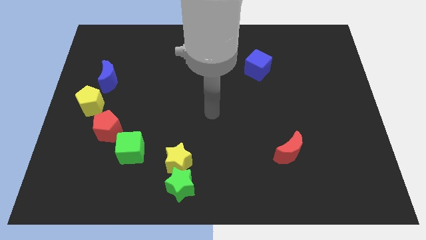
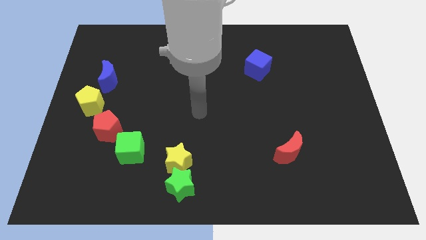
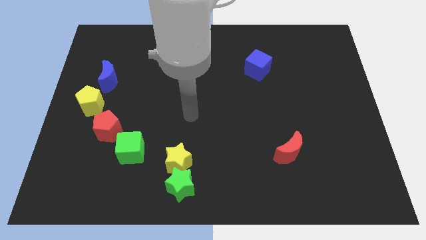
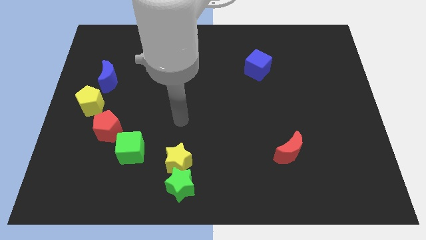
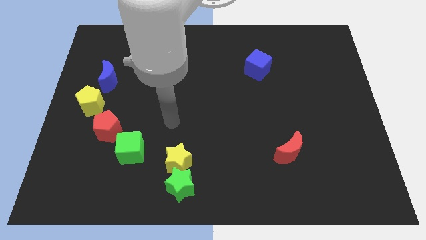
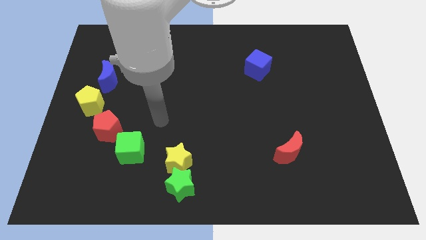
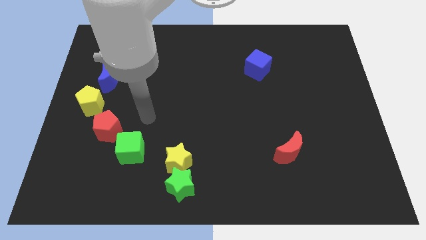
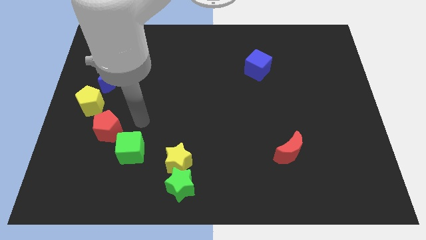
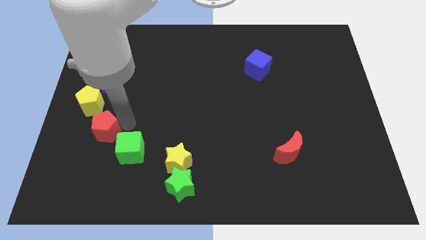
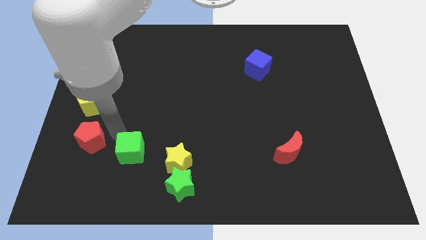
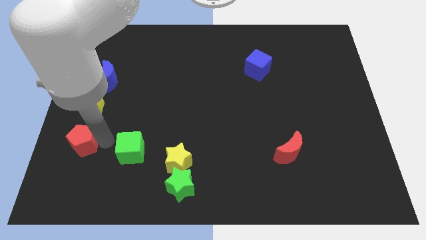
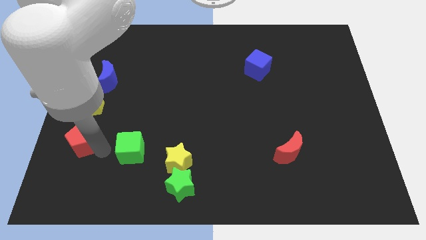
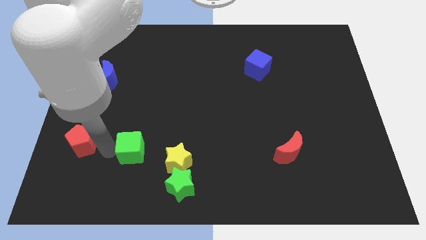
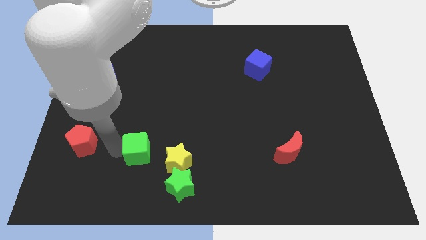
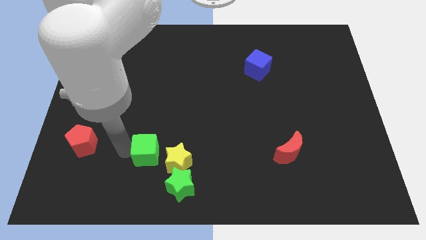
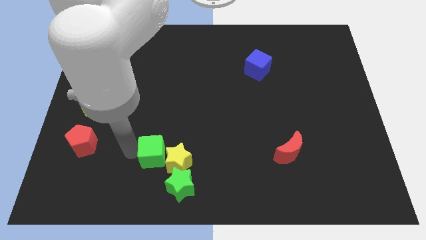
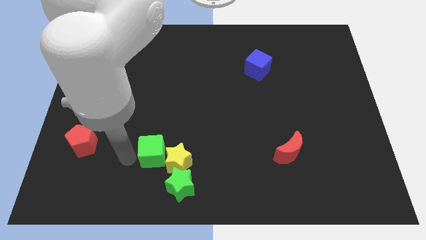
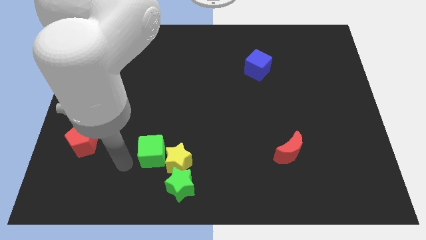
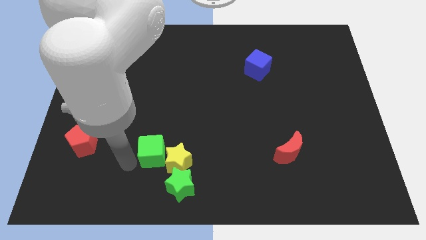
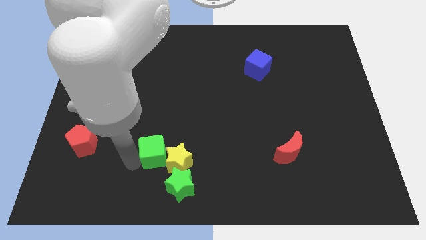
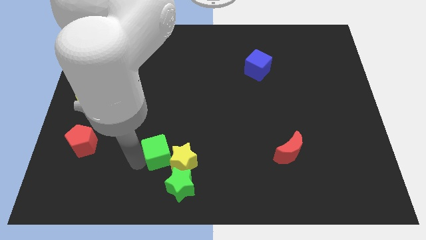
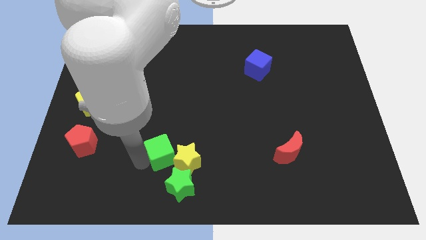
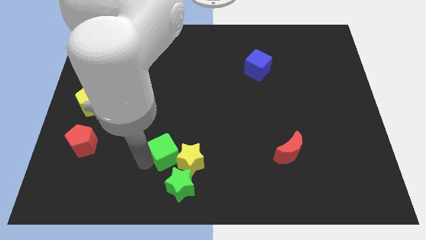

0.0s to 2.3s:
slide the green cube right a little bit

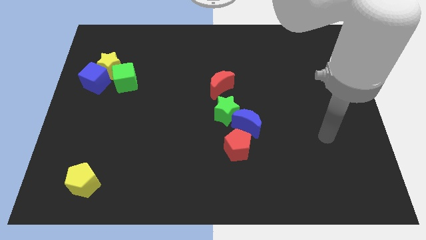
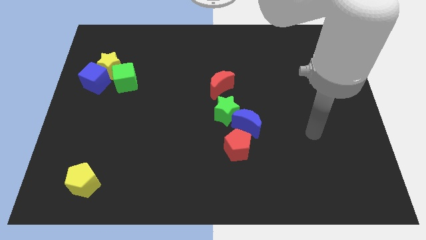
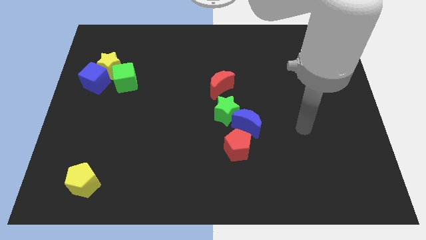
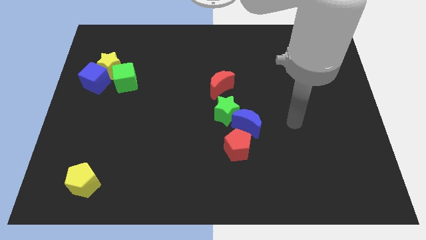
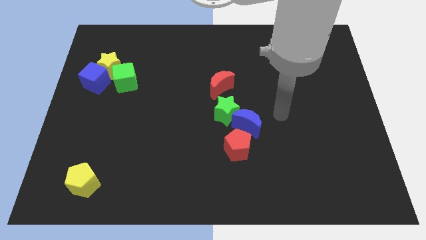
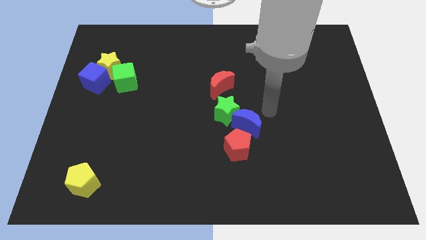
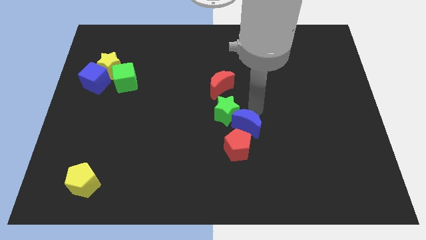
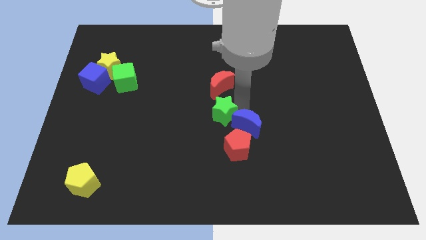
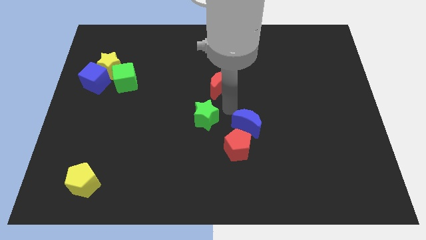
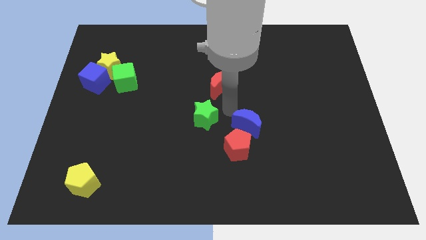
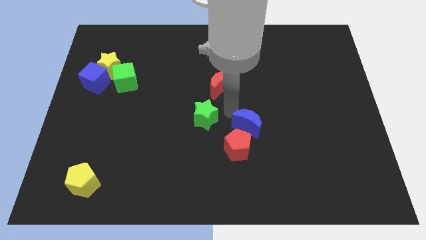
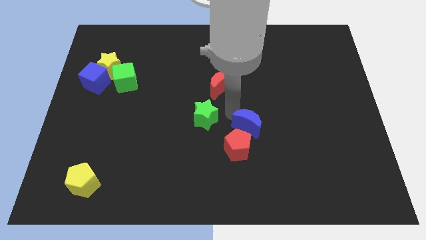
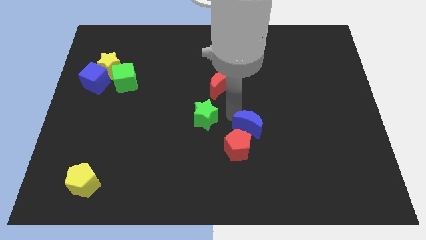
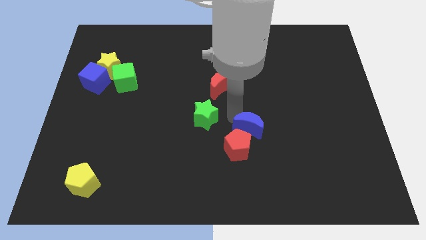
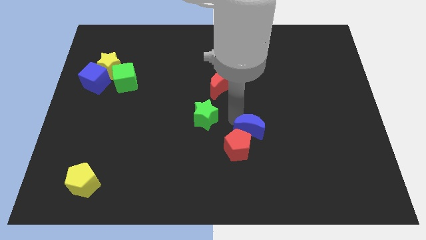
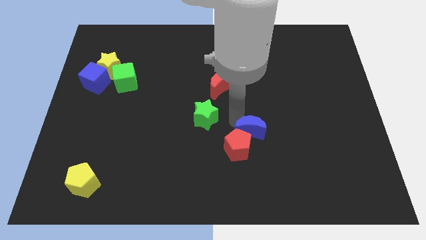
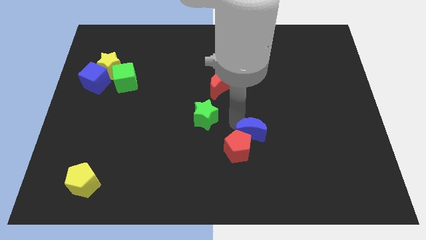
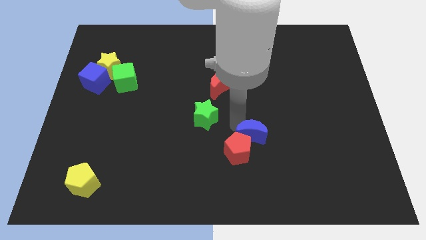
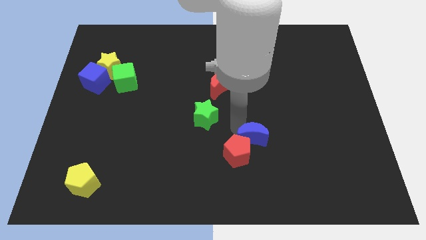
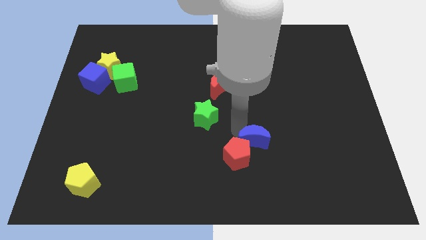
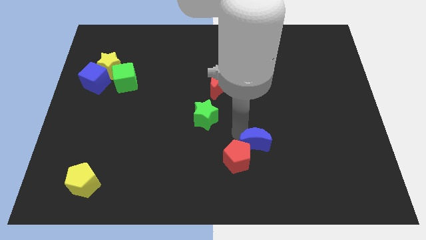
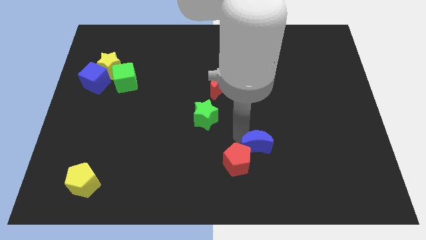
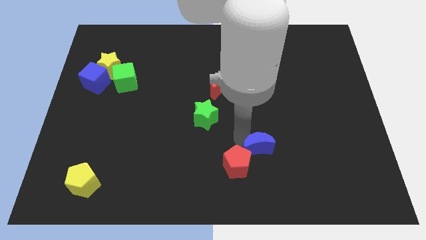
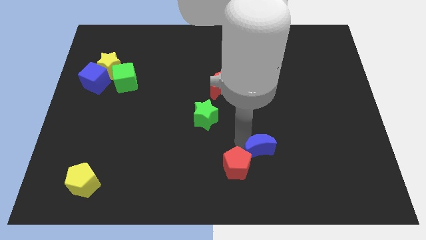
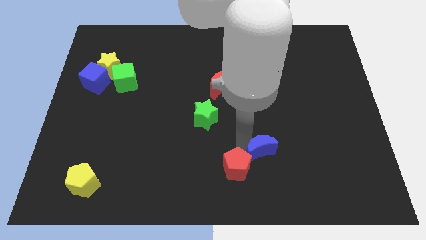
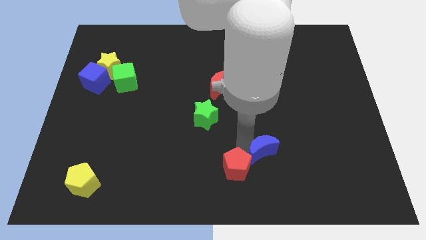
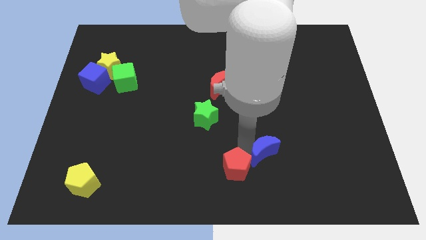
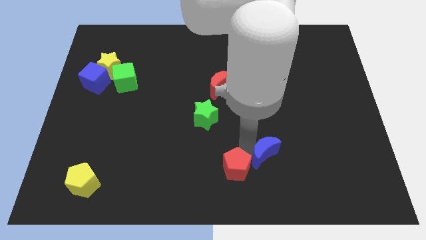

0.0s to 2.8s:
slide the blue moon somewhat downwards and to the right

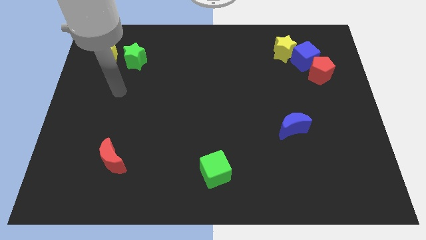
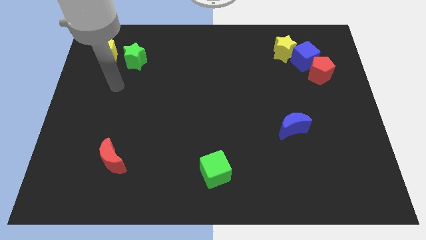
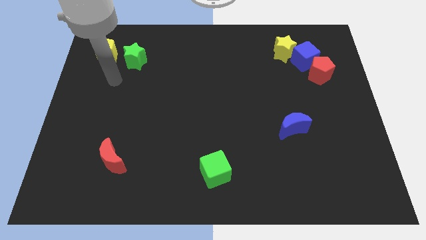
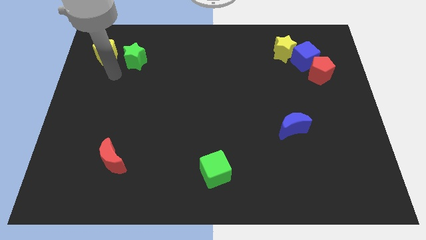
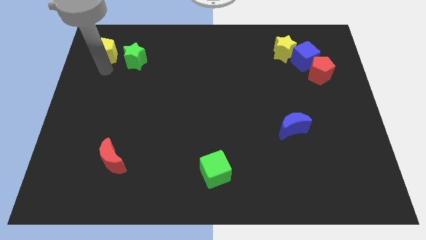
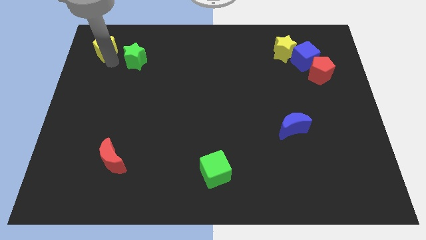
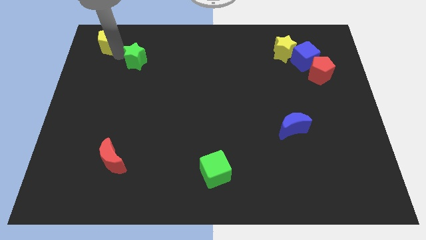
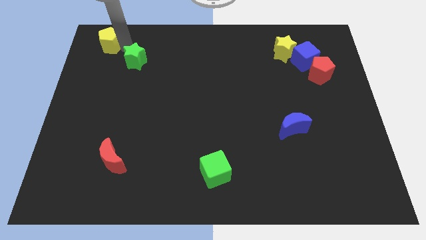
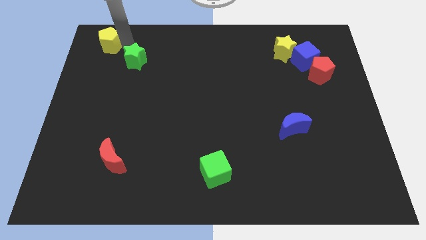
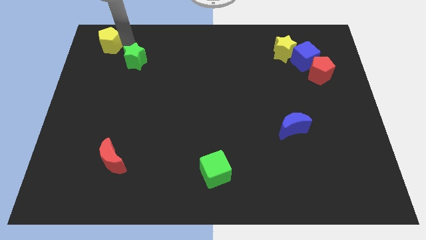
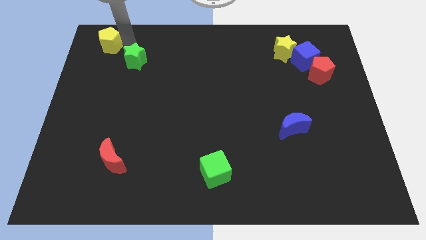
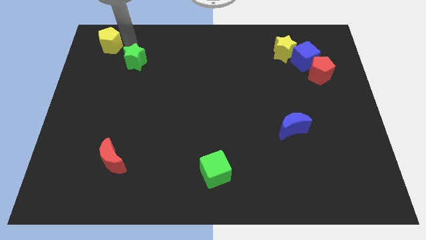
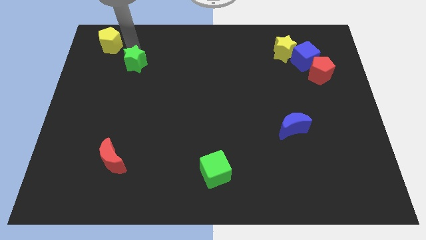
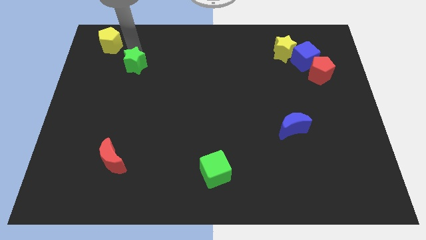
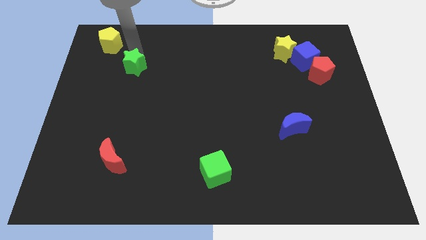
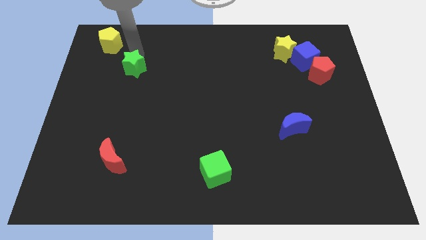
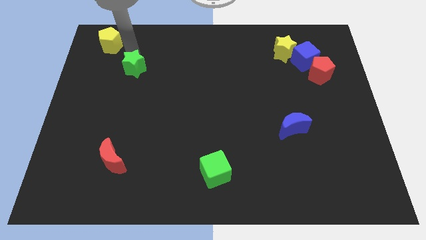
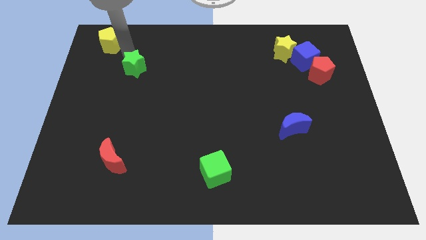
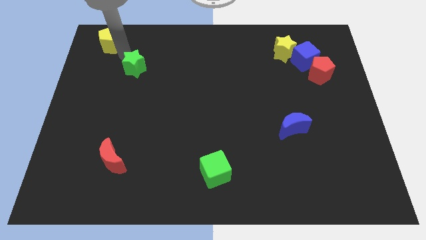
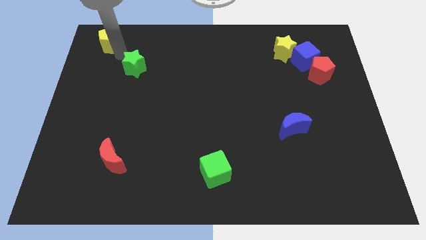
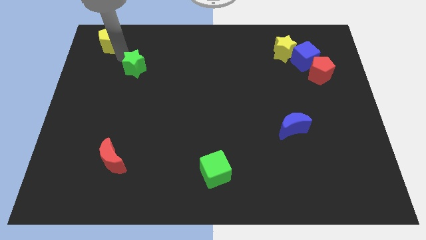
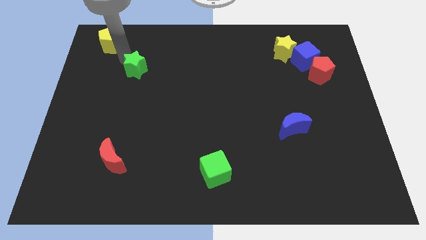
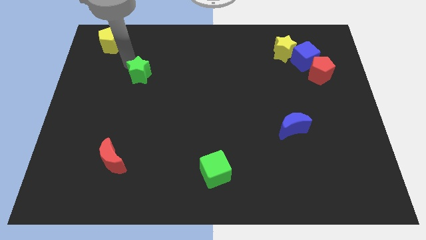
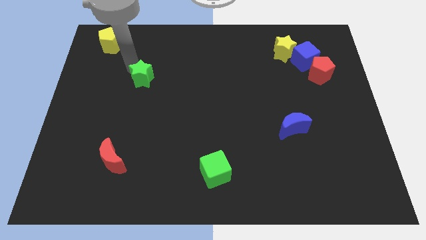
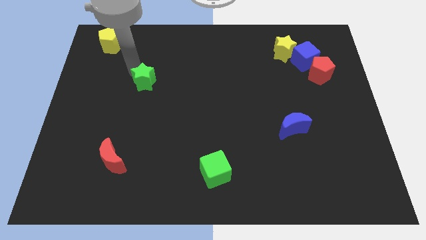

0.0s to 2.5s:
slide the green star downwards and right diagonally a little bit

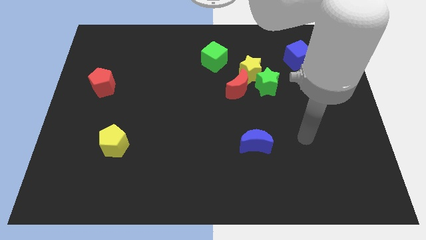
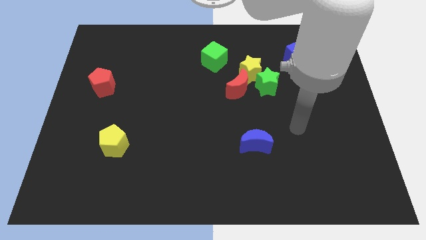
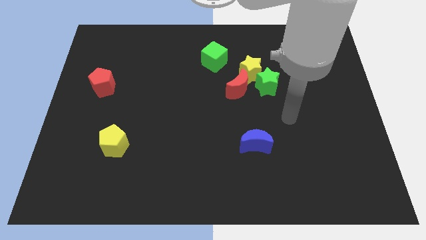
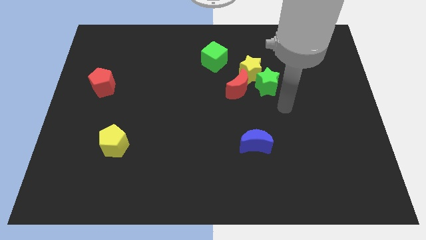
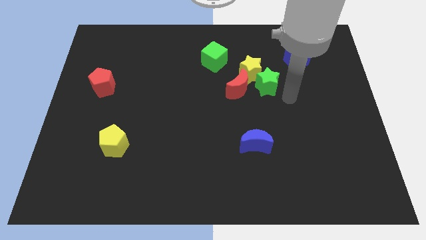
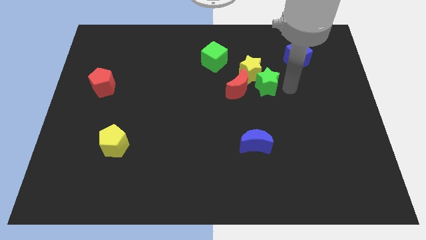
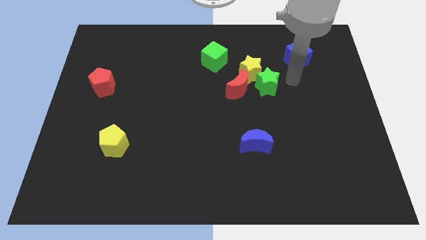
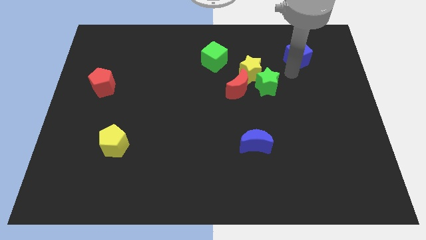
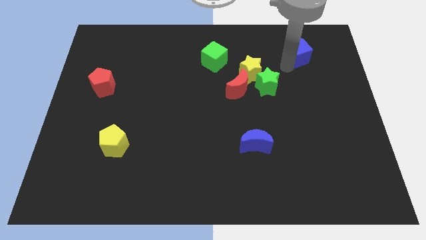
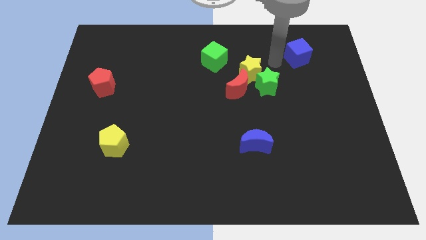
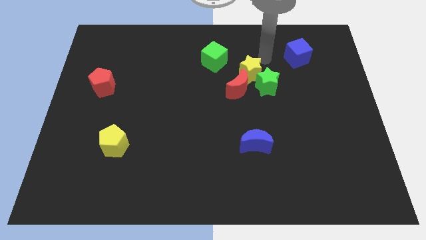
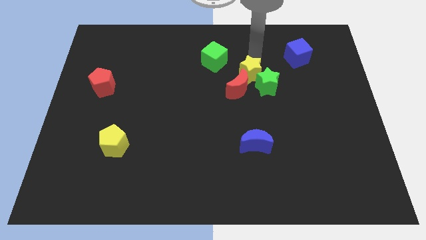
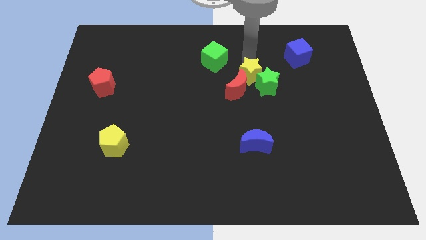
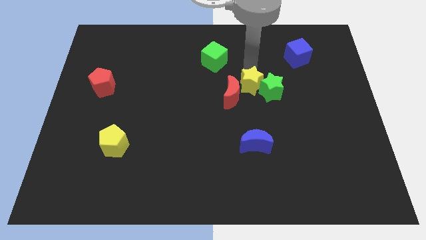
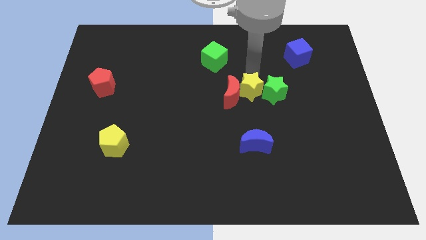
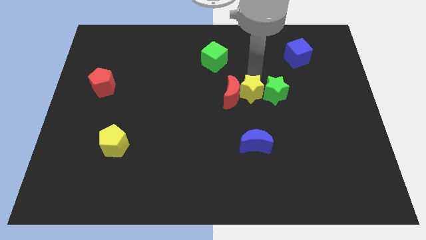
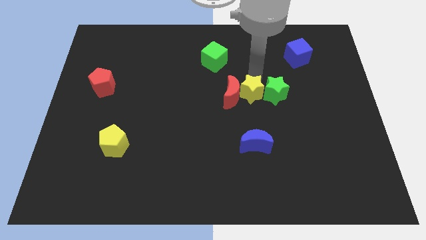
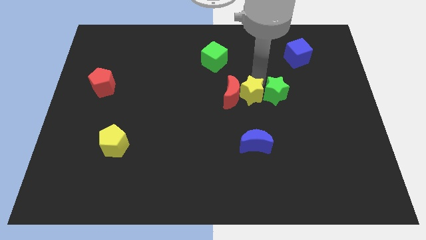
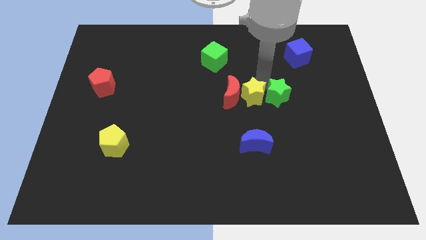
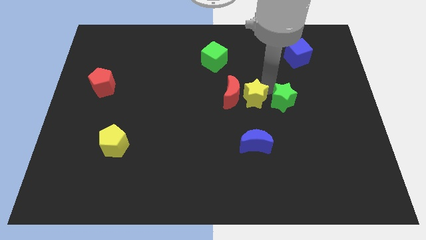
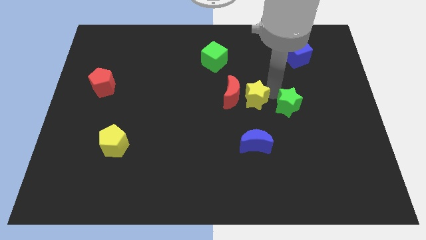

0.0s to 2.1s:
slightly move the green star down and to the right diagonally
